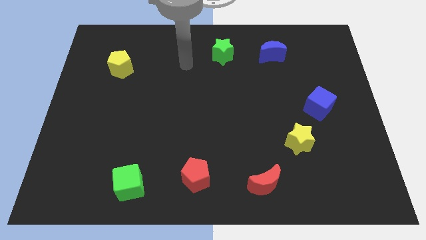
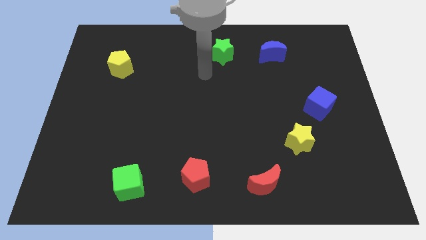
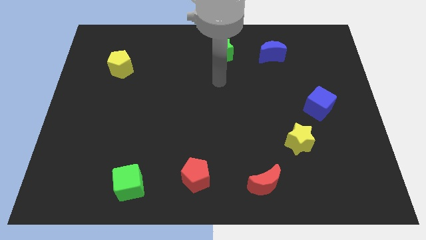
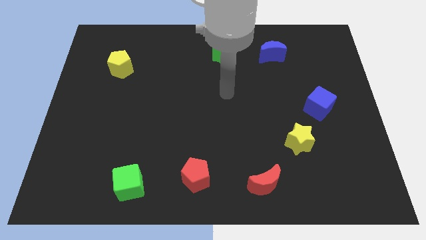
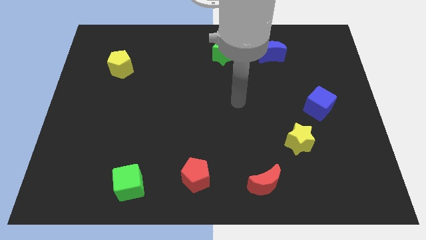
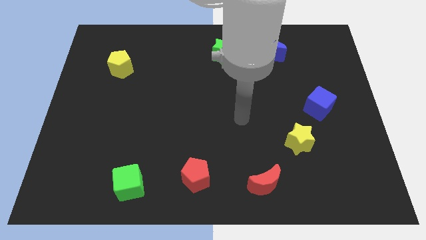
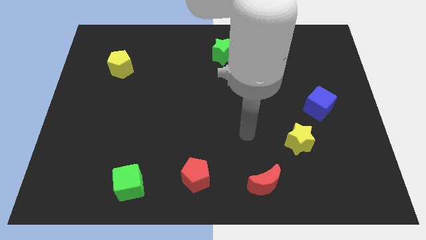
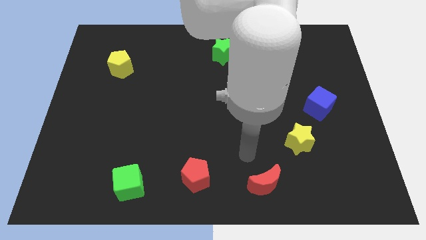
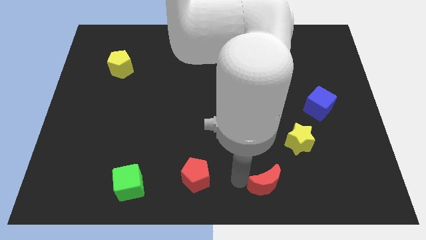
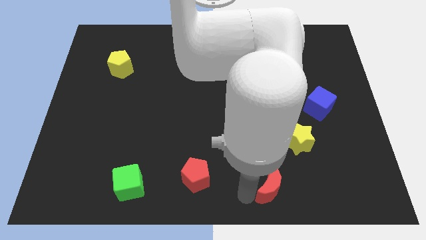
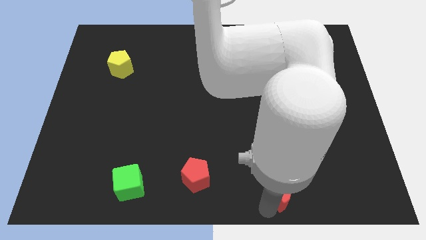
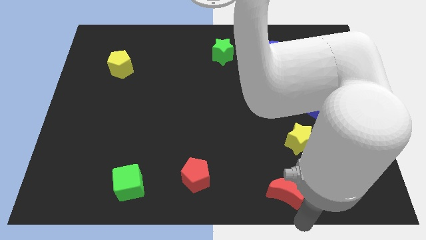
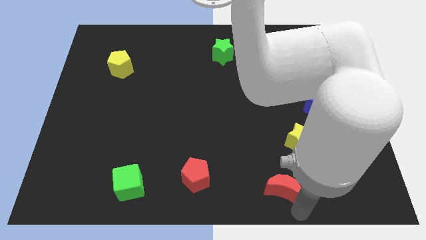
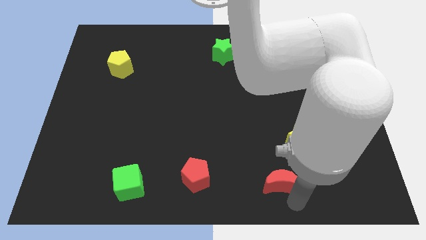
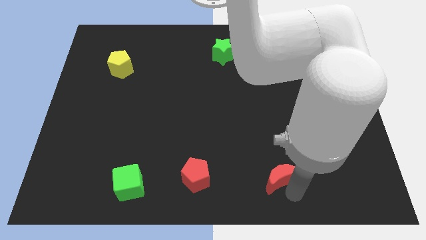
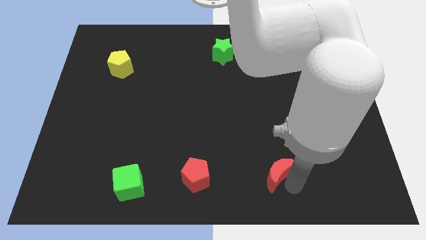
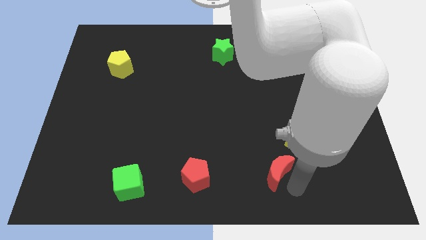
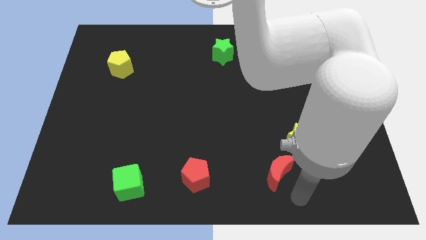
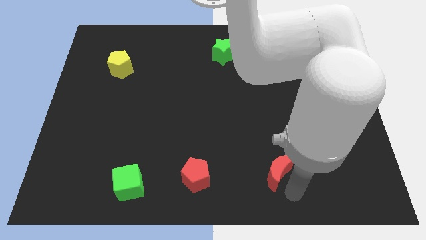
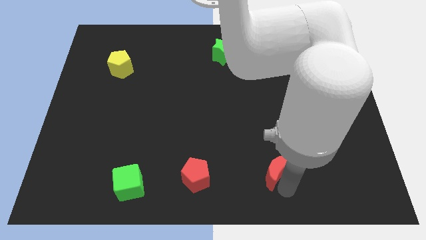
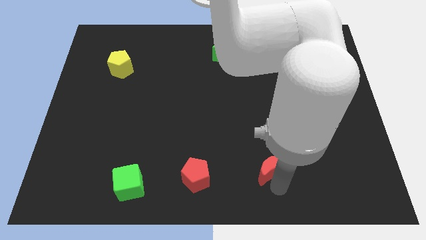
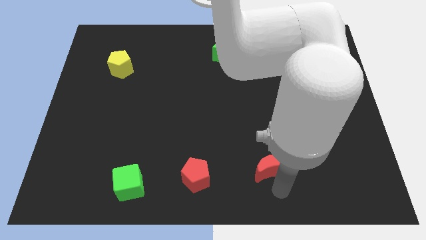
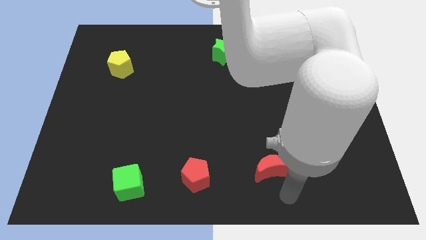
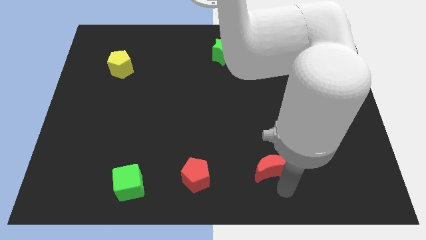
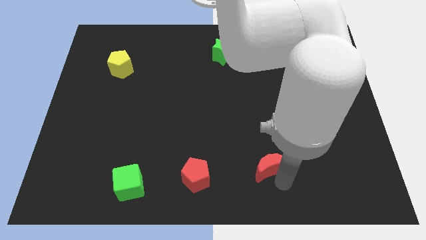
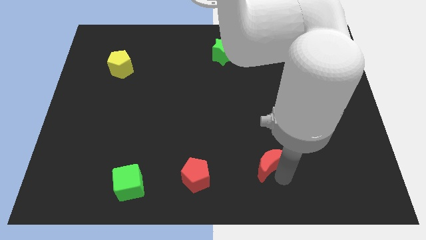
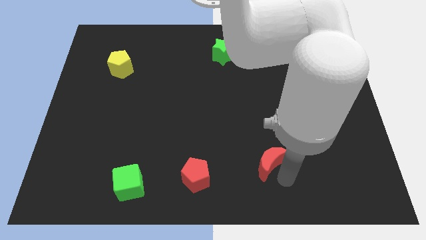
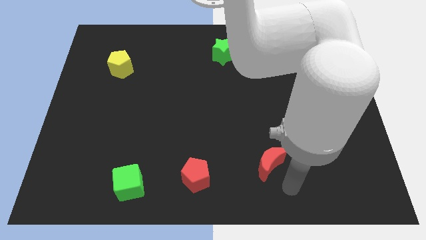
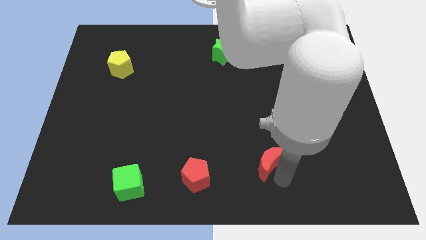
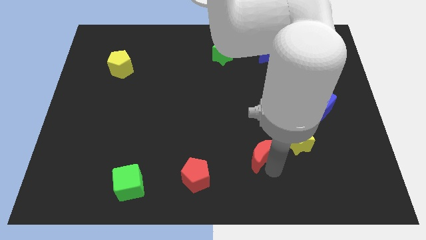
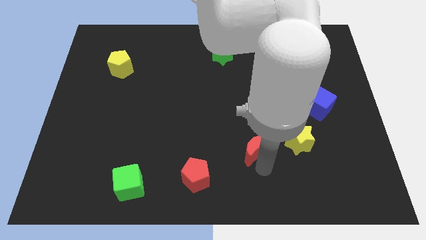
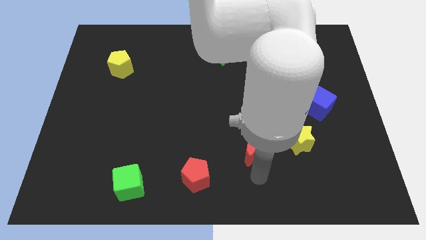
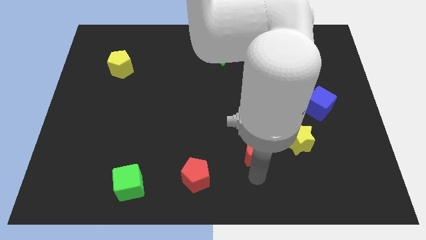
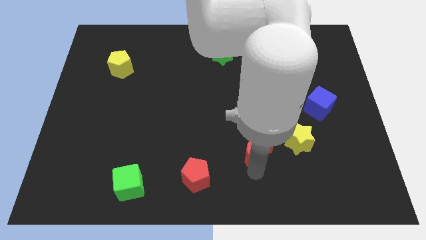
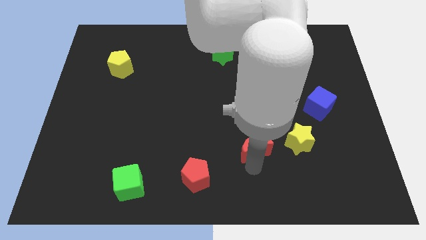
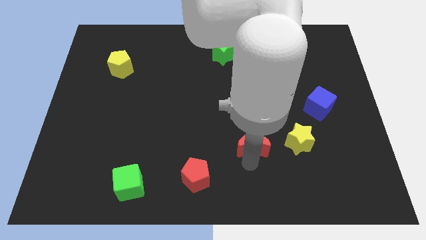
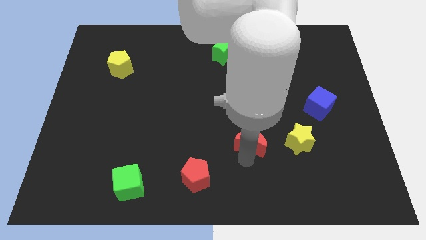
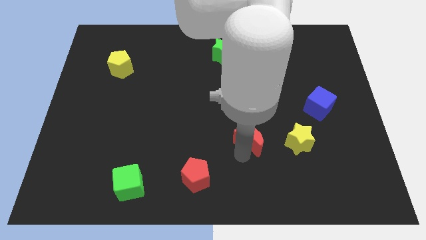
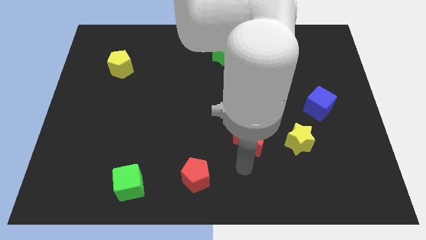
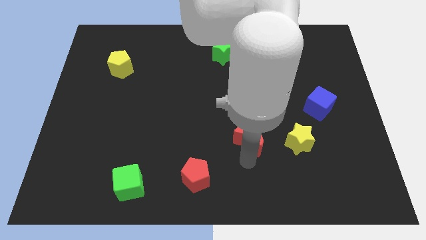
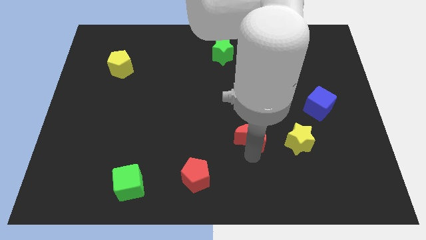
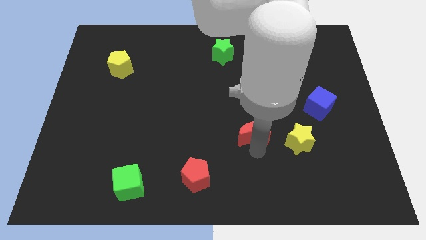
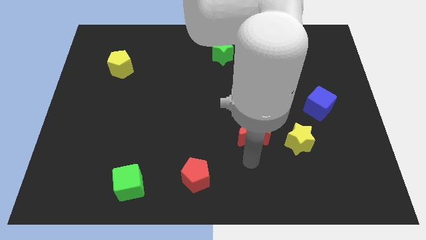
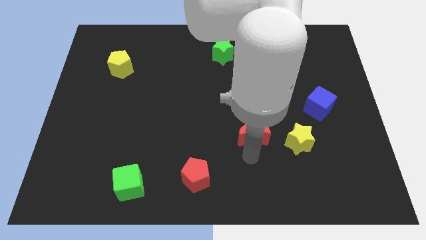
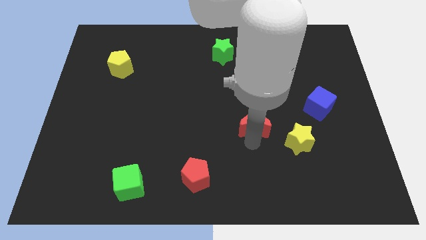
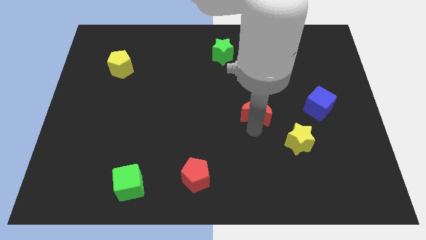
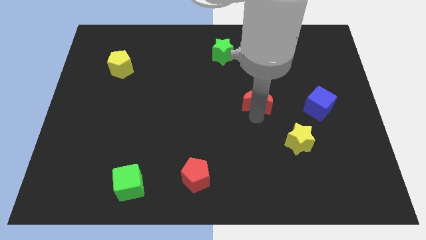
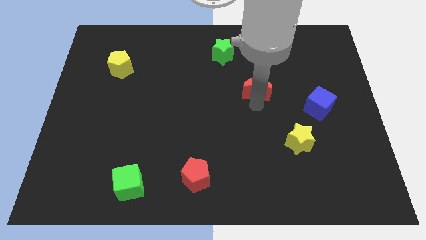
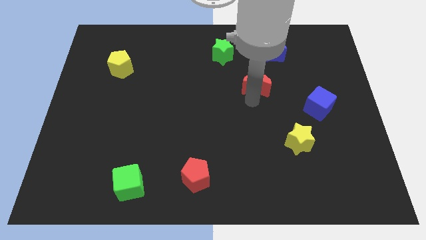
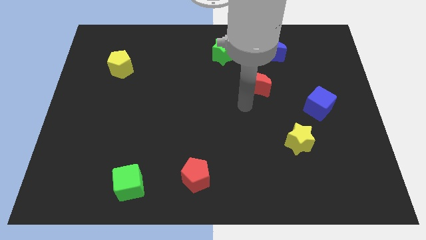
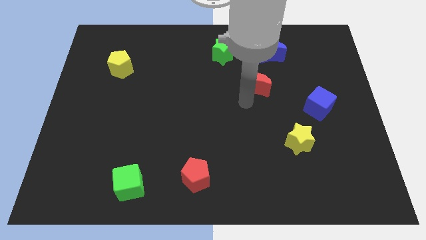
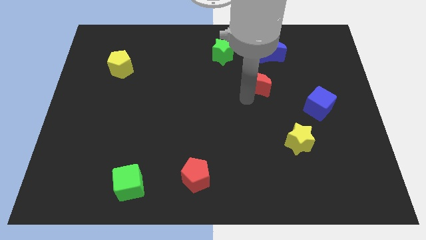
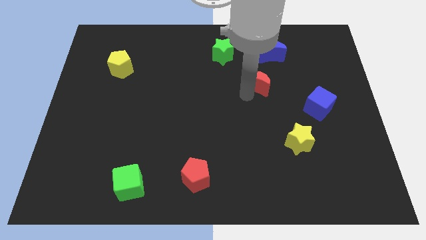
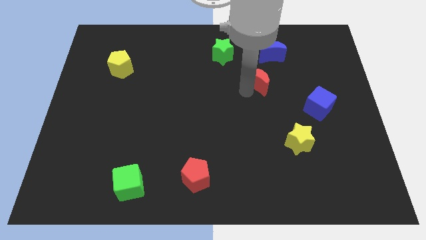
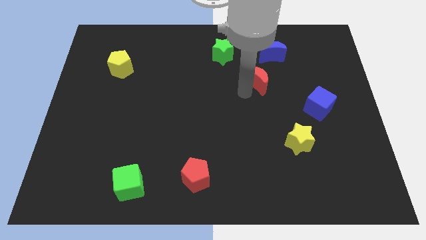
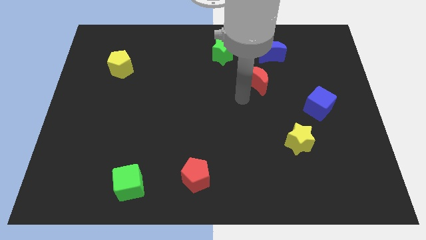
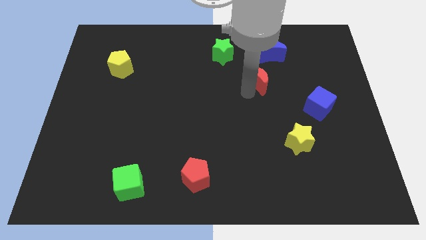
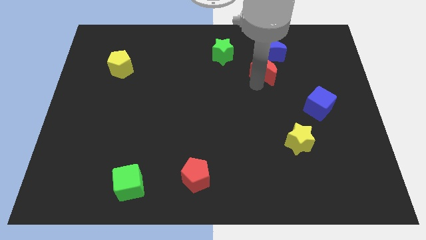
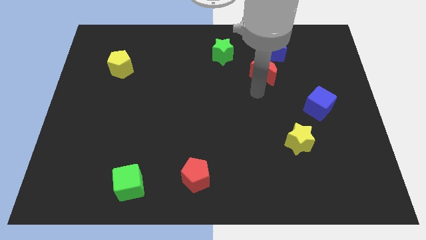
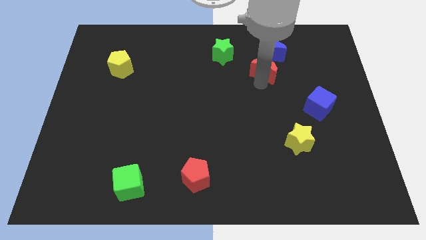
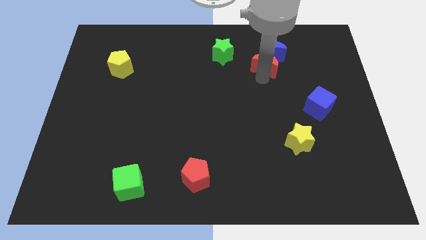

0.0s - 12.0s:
put the red moon next to the blue moon

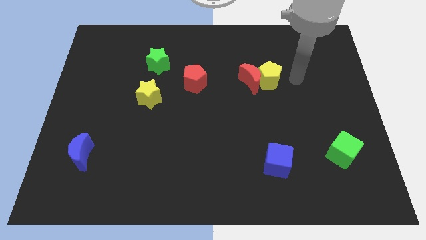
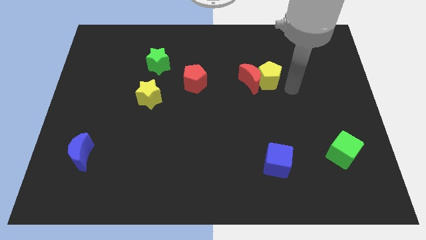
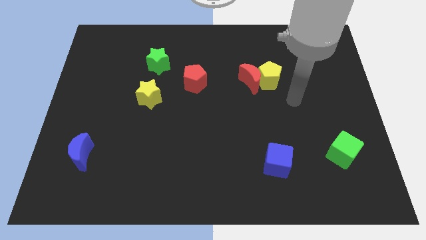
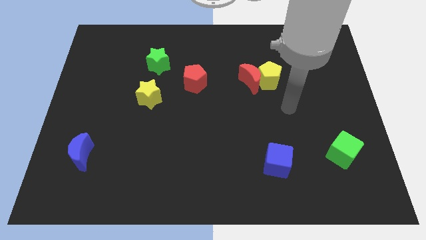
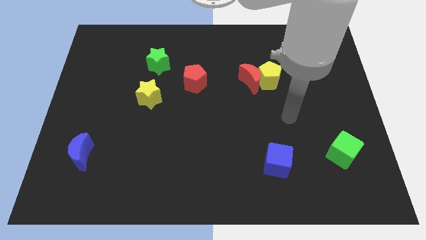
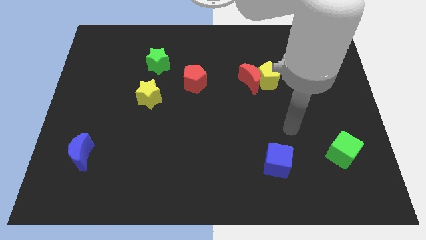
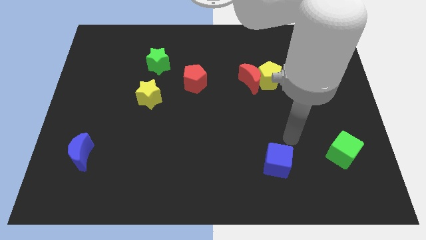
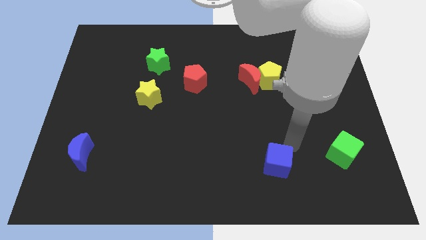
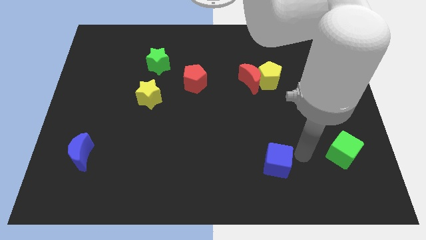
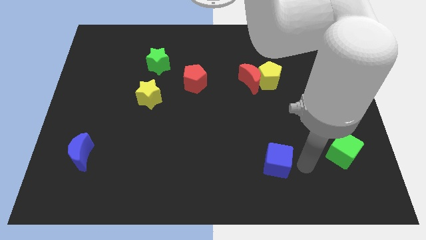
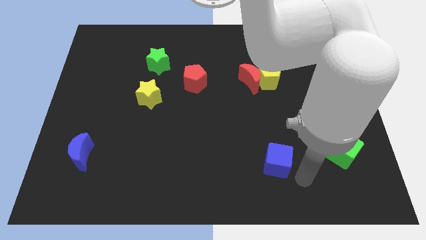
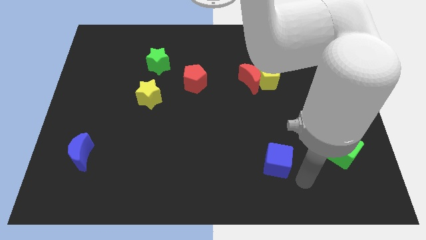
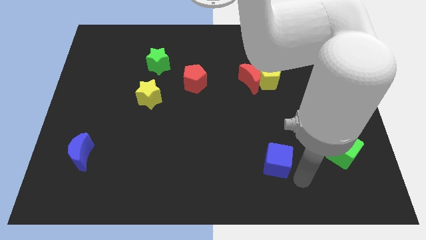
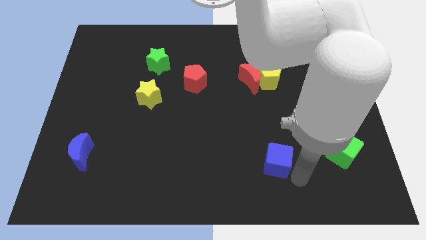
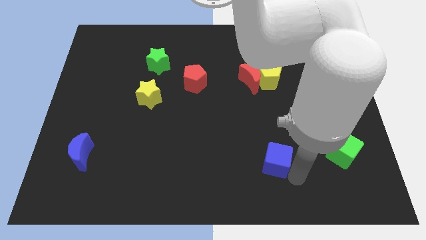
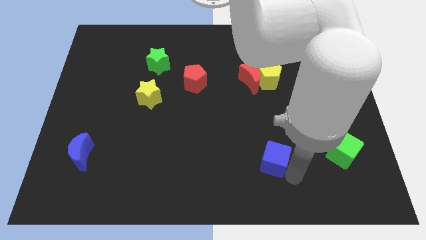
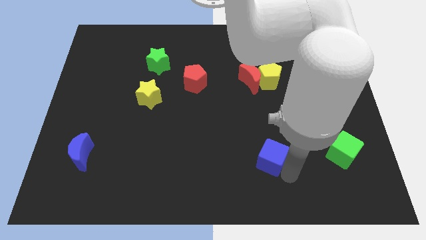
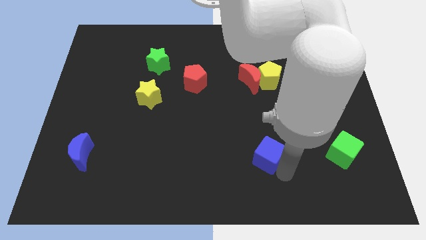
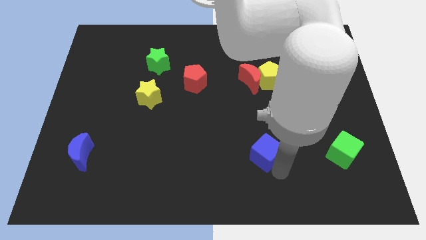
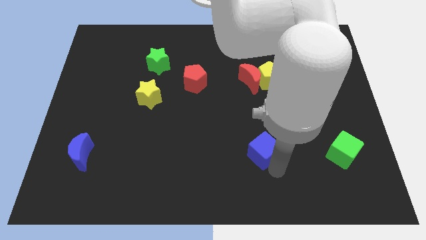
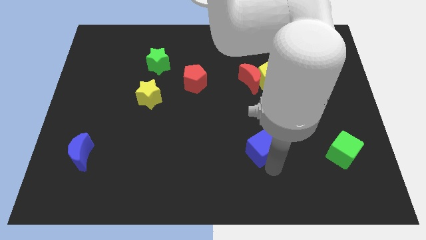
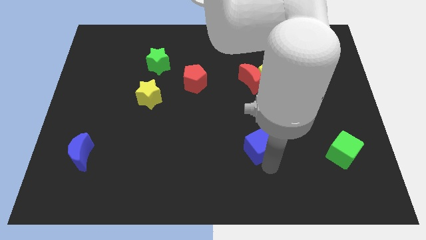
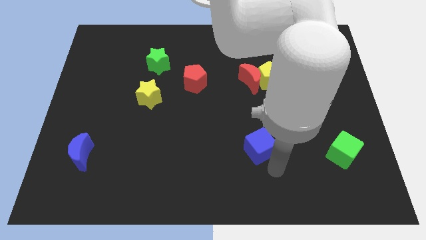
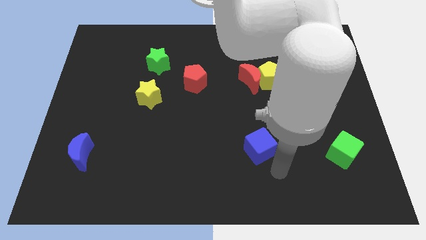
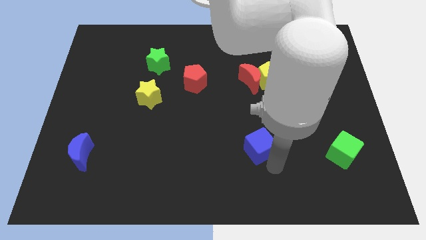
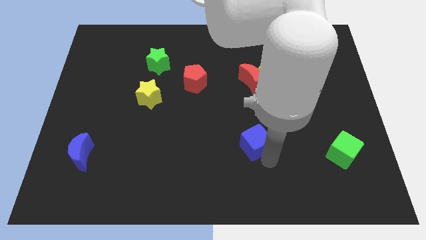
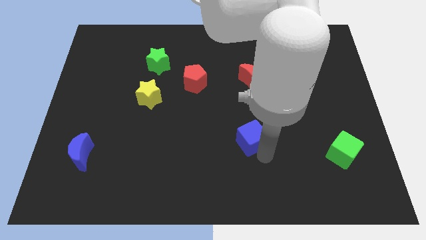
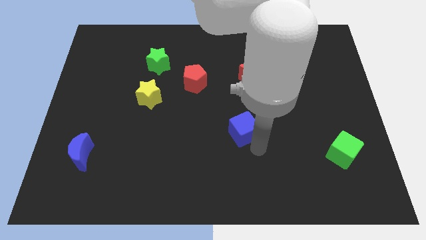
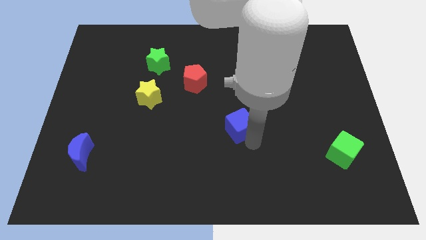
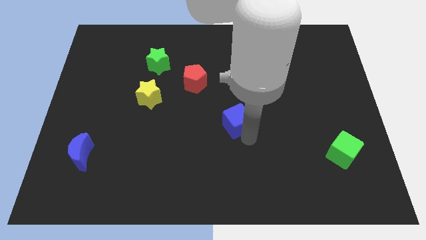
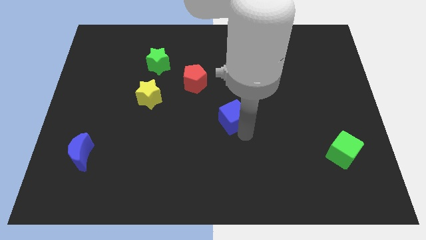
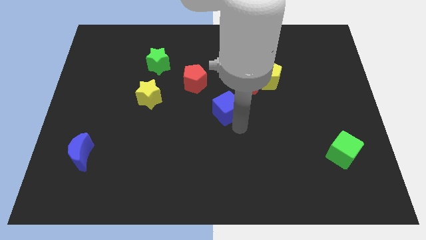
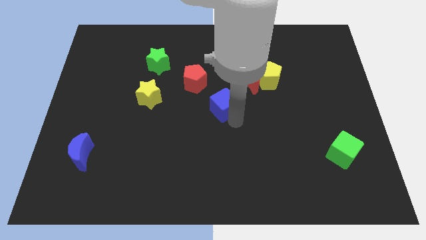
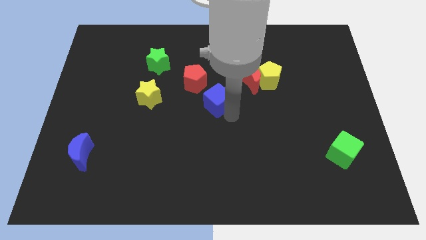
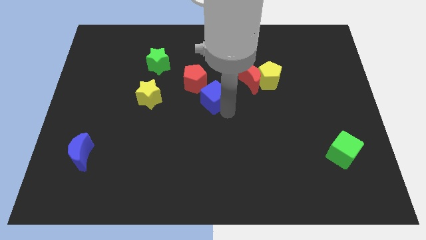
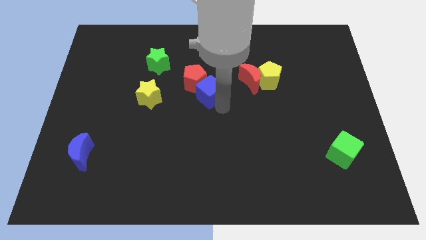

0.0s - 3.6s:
move the blue cube to the red pentagon
